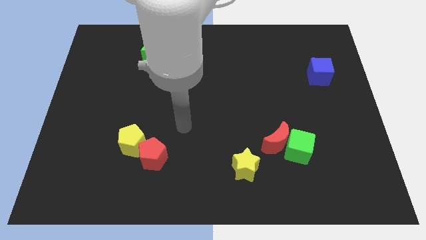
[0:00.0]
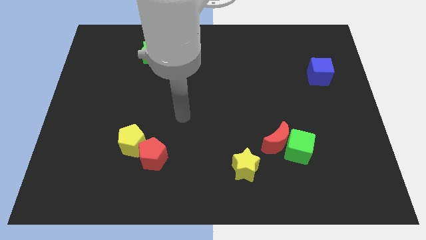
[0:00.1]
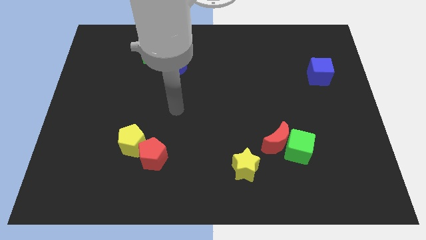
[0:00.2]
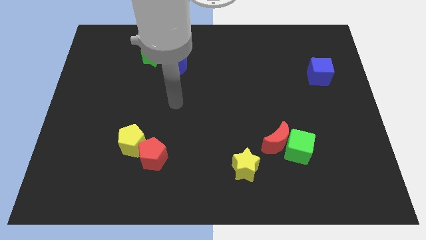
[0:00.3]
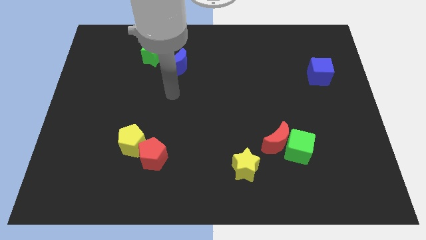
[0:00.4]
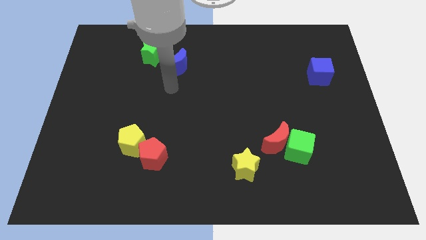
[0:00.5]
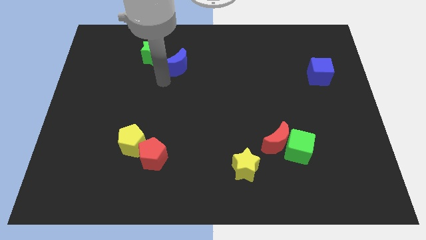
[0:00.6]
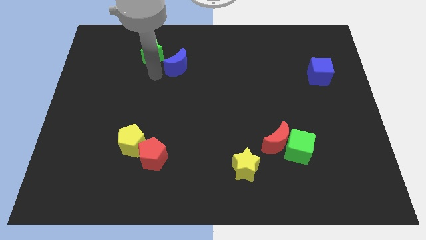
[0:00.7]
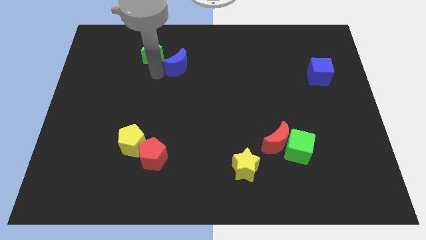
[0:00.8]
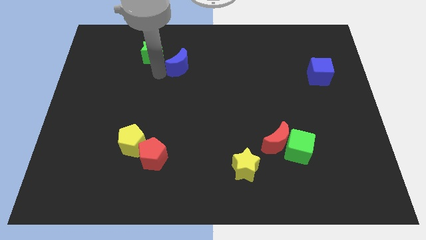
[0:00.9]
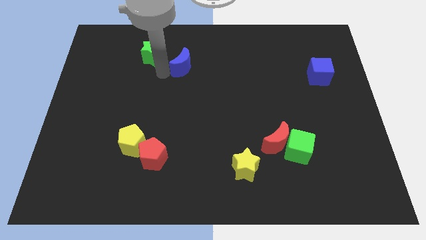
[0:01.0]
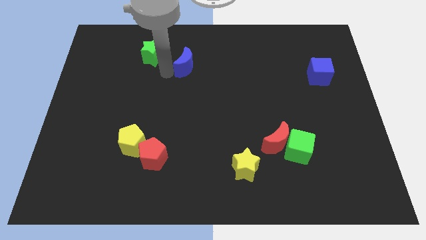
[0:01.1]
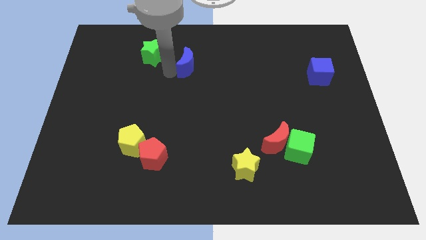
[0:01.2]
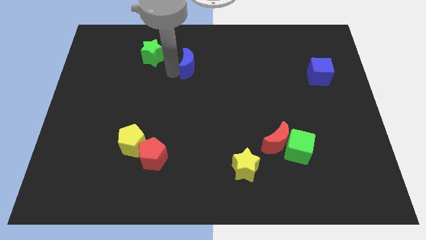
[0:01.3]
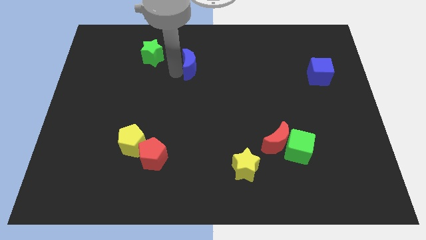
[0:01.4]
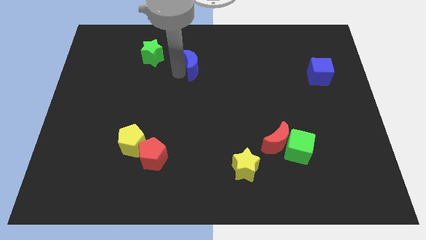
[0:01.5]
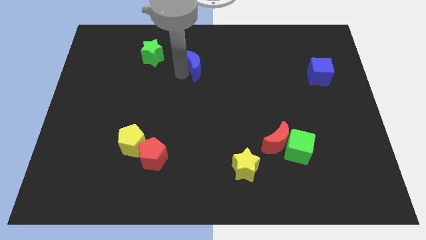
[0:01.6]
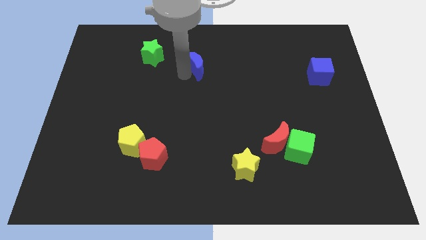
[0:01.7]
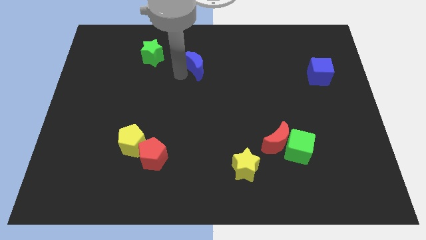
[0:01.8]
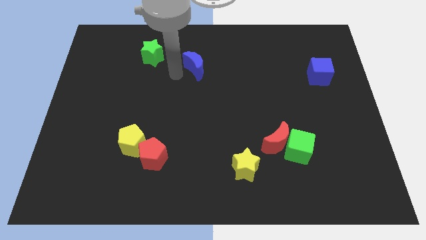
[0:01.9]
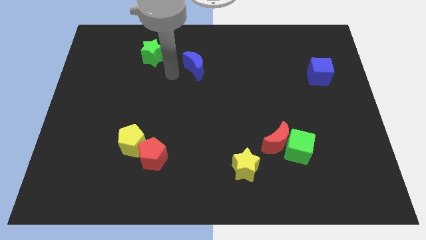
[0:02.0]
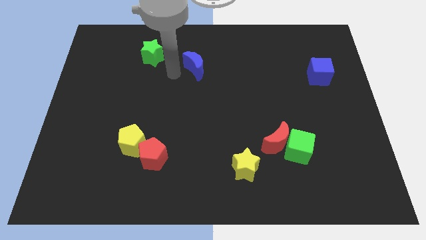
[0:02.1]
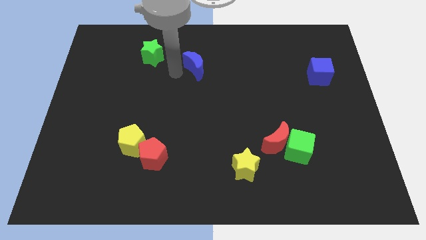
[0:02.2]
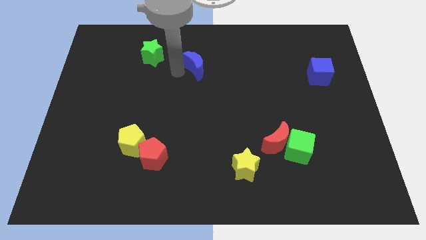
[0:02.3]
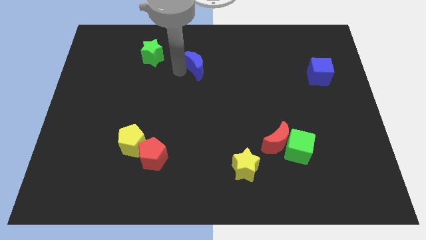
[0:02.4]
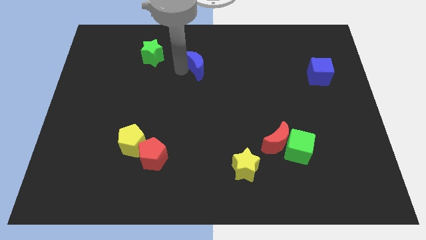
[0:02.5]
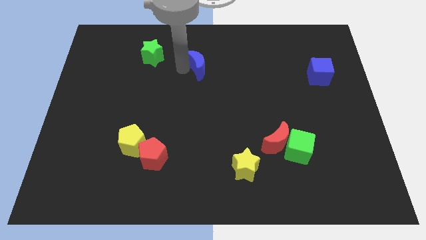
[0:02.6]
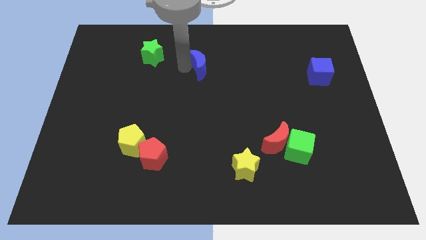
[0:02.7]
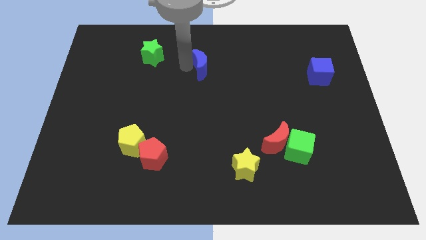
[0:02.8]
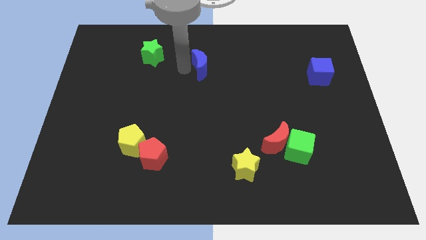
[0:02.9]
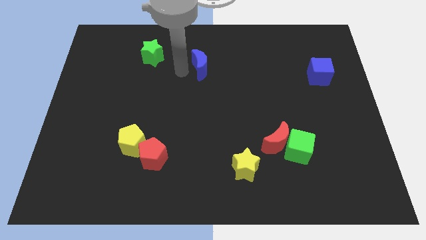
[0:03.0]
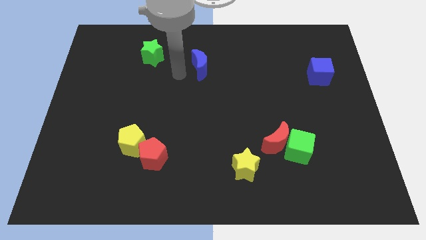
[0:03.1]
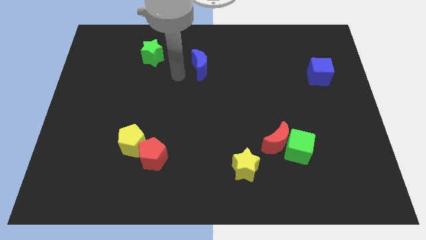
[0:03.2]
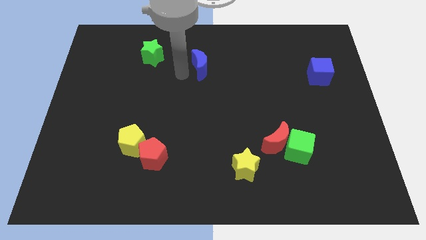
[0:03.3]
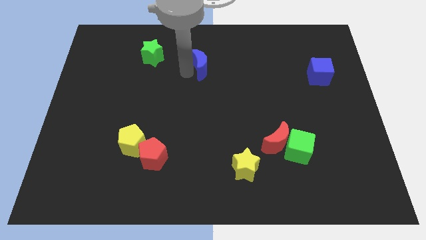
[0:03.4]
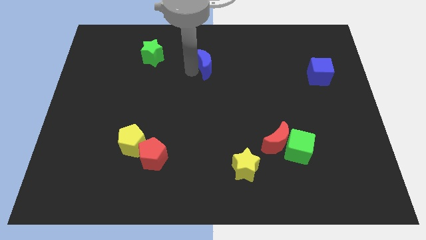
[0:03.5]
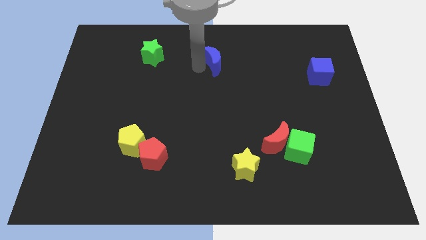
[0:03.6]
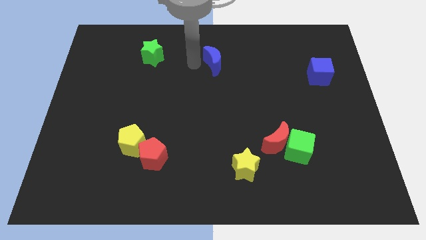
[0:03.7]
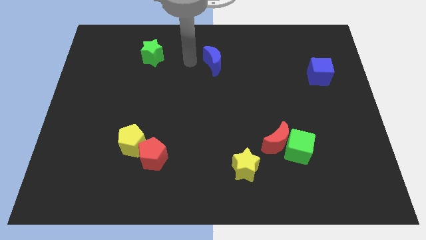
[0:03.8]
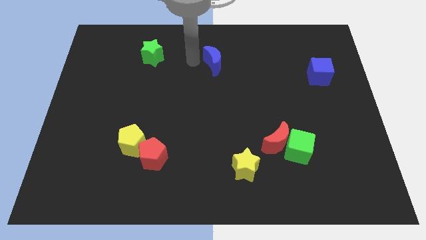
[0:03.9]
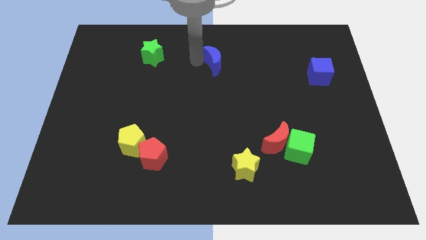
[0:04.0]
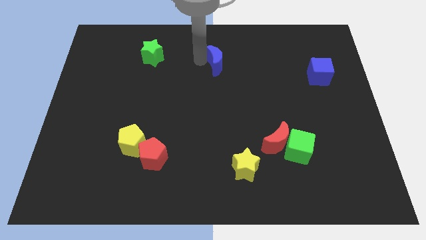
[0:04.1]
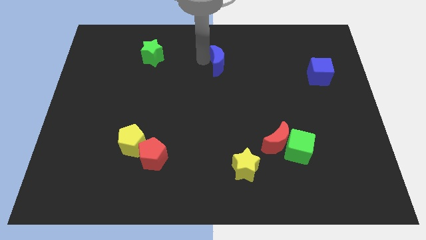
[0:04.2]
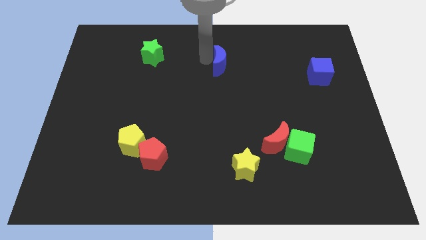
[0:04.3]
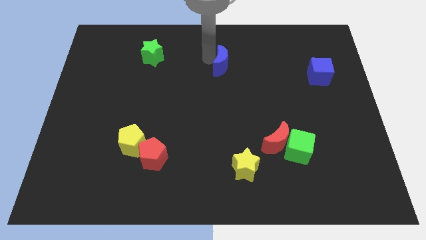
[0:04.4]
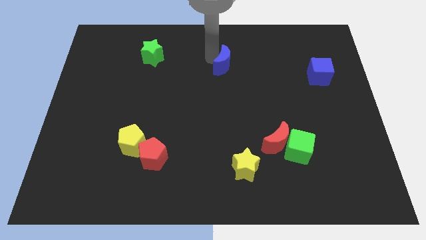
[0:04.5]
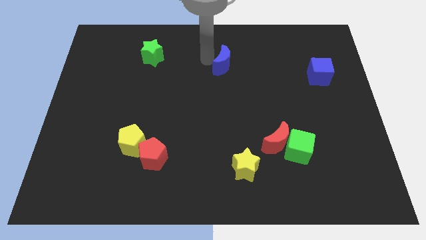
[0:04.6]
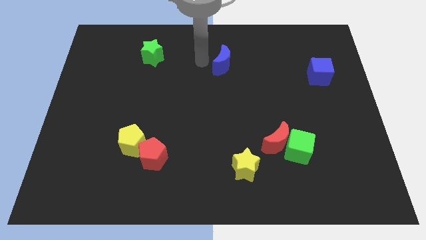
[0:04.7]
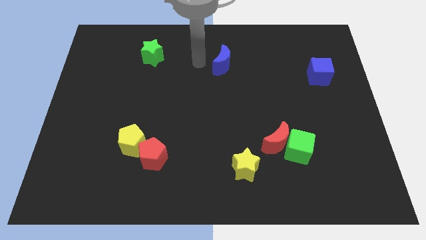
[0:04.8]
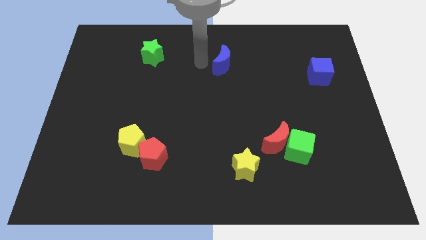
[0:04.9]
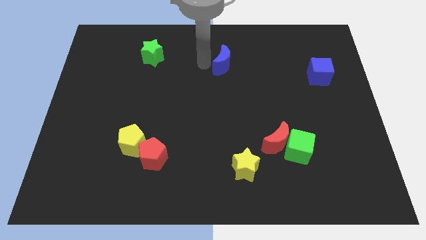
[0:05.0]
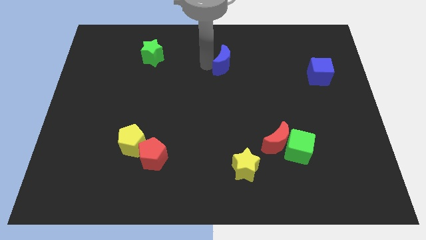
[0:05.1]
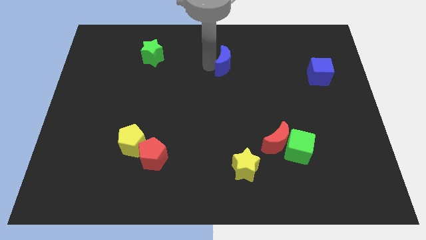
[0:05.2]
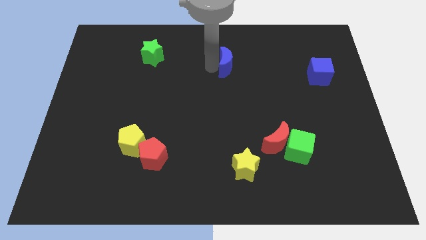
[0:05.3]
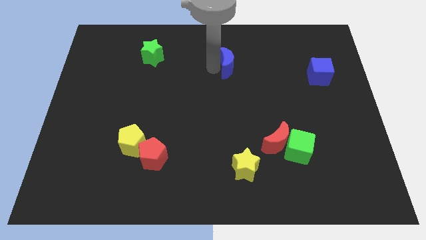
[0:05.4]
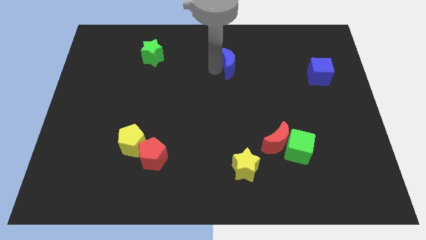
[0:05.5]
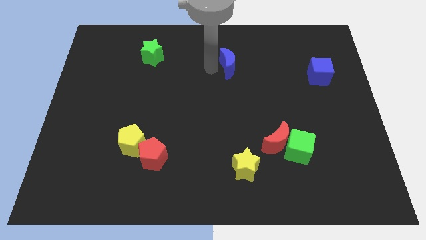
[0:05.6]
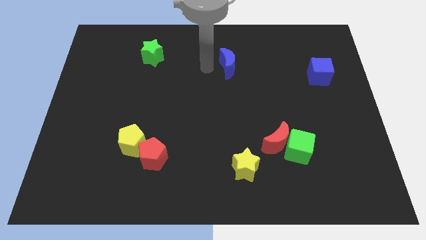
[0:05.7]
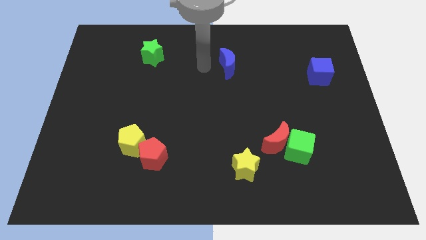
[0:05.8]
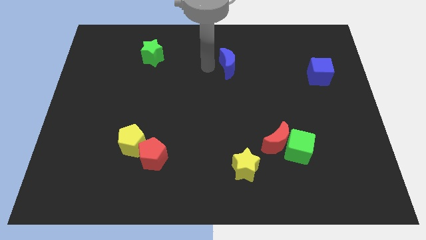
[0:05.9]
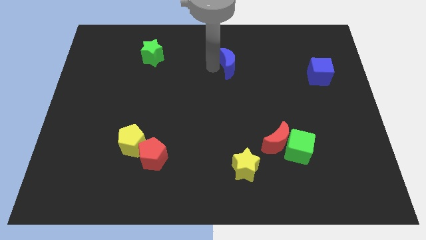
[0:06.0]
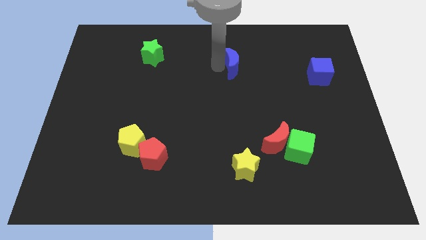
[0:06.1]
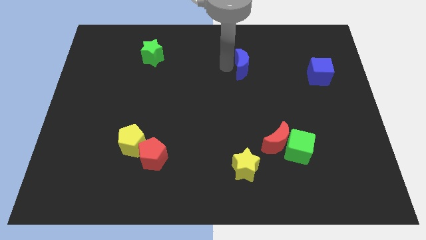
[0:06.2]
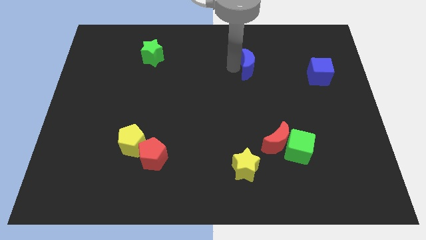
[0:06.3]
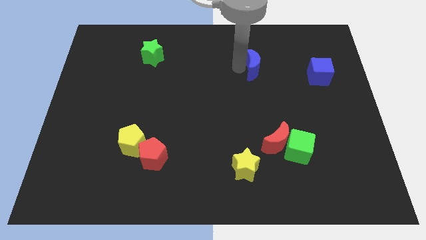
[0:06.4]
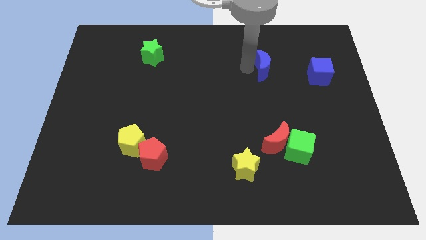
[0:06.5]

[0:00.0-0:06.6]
push the blue moon right

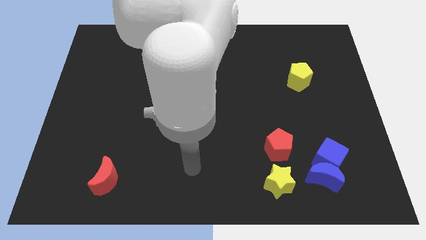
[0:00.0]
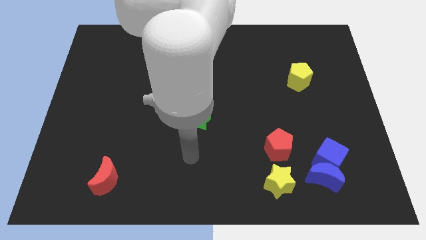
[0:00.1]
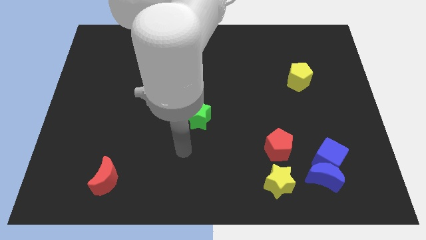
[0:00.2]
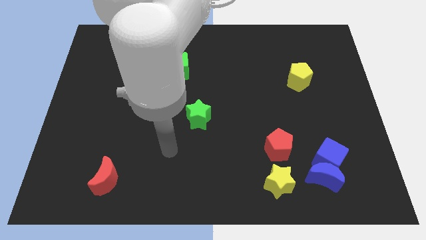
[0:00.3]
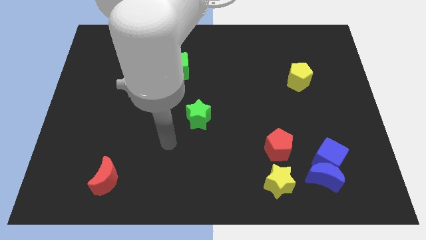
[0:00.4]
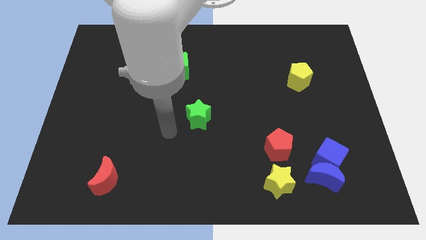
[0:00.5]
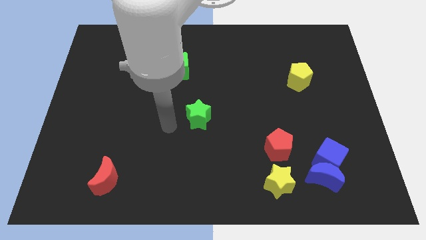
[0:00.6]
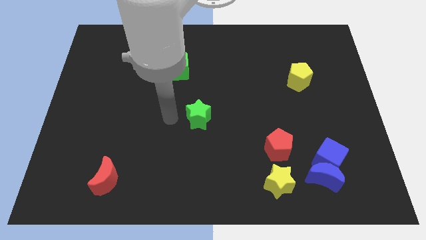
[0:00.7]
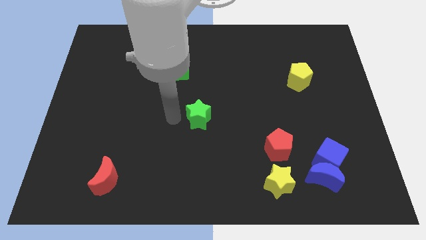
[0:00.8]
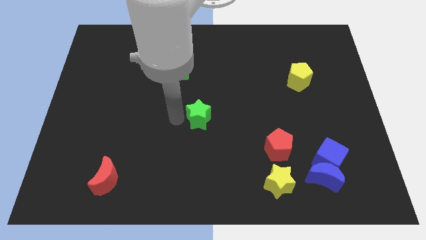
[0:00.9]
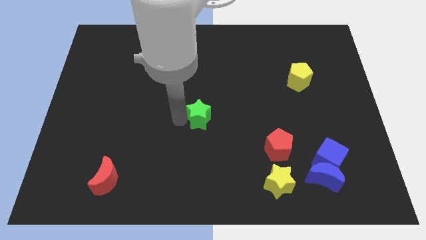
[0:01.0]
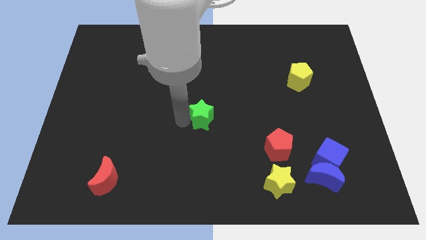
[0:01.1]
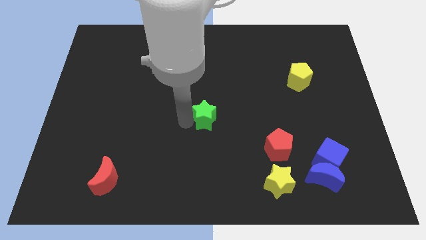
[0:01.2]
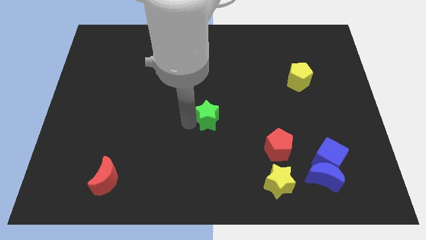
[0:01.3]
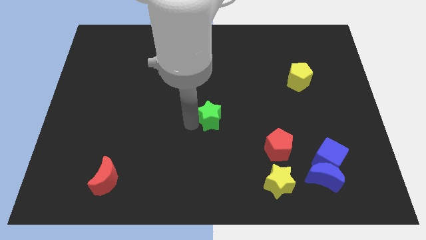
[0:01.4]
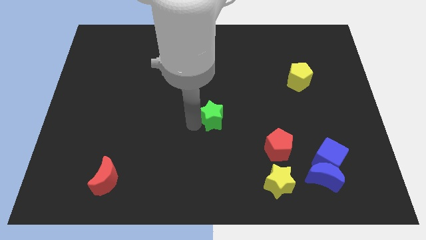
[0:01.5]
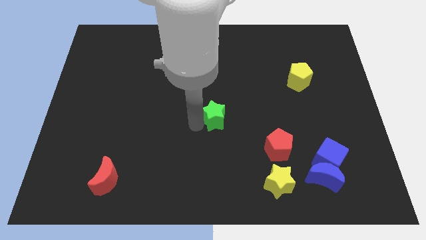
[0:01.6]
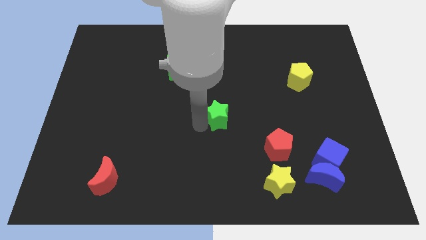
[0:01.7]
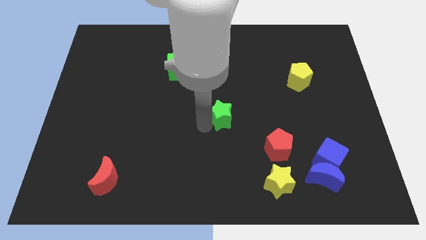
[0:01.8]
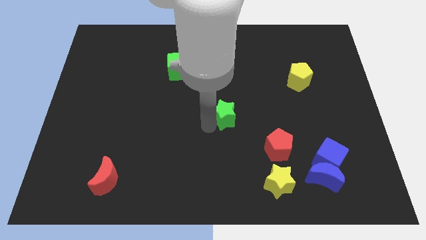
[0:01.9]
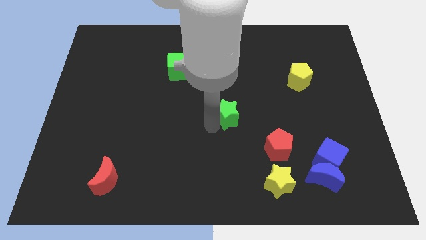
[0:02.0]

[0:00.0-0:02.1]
push the green star right a little bit
